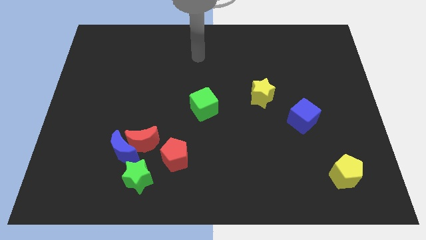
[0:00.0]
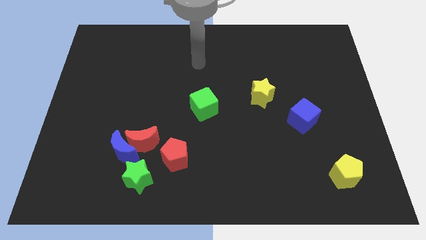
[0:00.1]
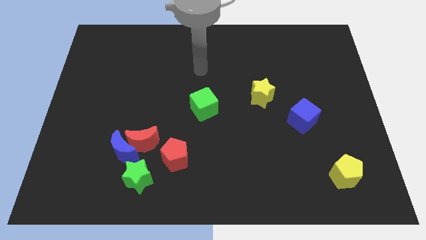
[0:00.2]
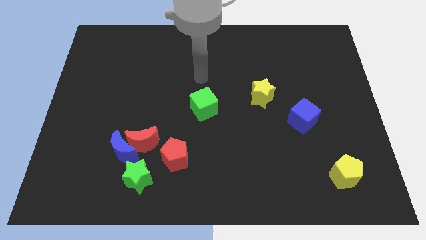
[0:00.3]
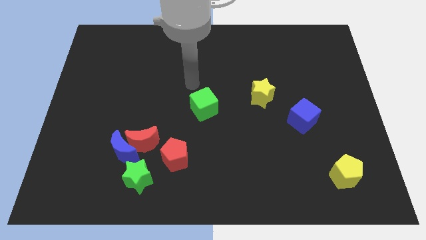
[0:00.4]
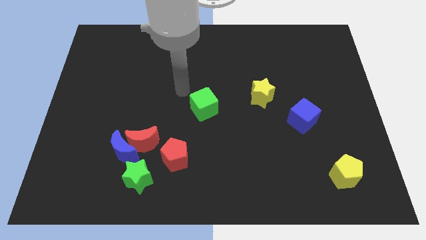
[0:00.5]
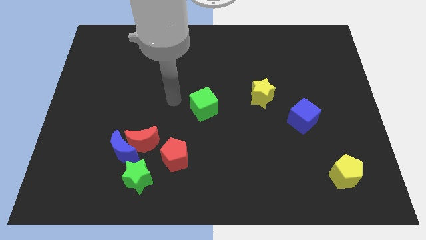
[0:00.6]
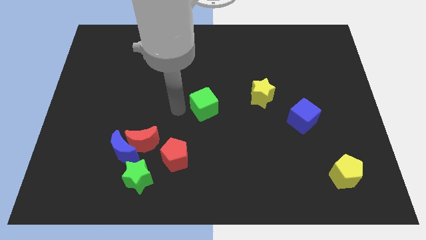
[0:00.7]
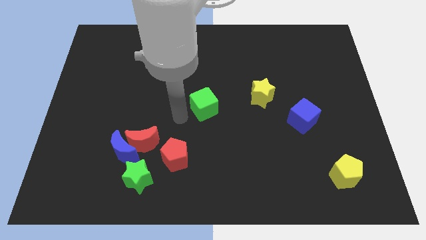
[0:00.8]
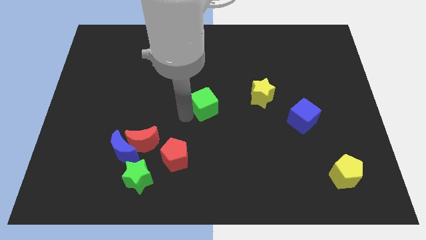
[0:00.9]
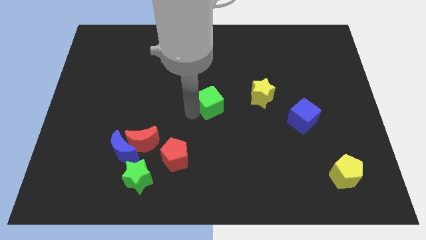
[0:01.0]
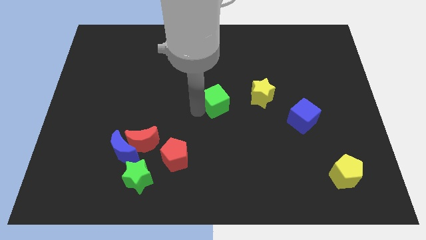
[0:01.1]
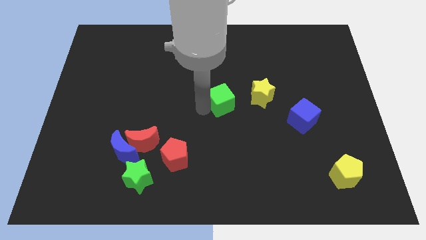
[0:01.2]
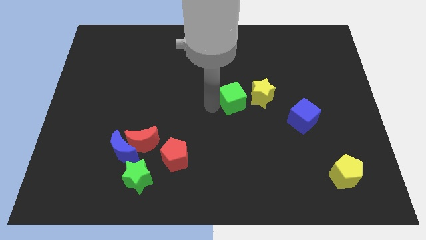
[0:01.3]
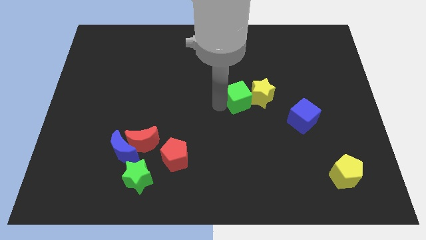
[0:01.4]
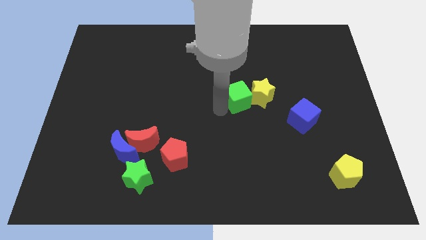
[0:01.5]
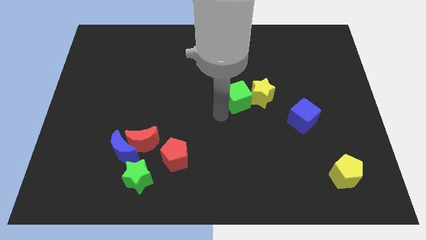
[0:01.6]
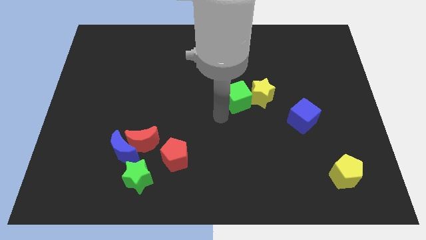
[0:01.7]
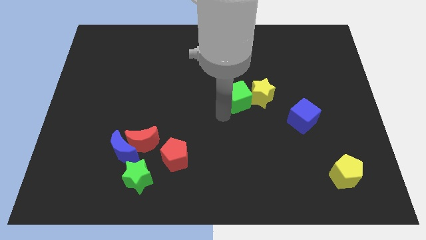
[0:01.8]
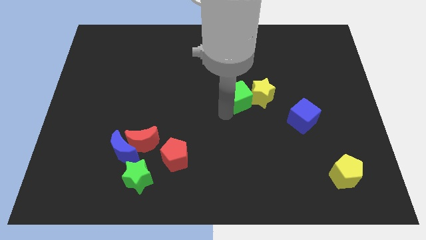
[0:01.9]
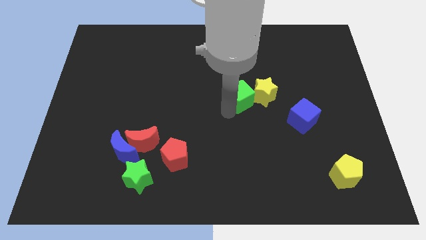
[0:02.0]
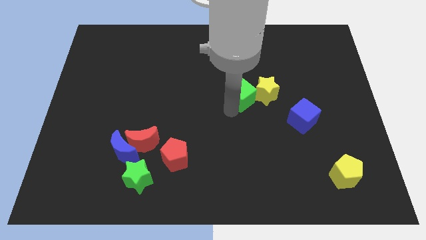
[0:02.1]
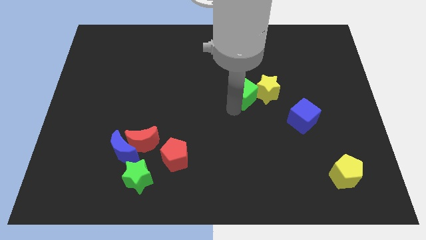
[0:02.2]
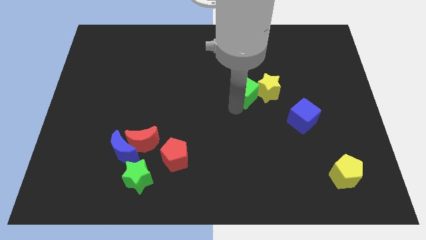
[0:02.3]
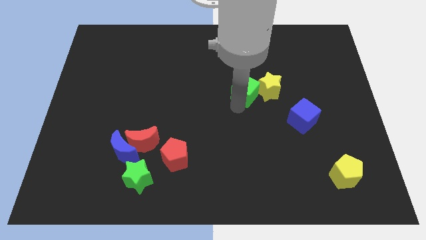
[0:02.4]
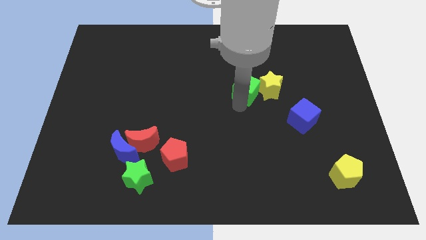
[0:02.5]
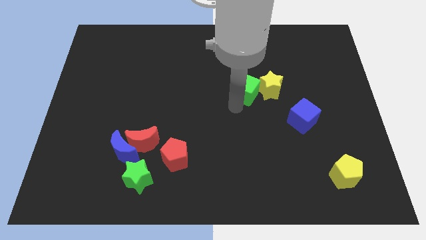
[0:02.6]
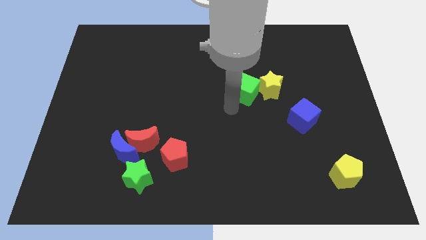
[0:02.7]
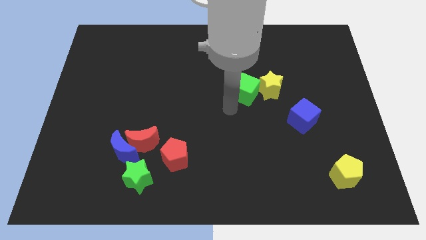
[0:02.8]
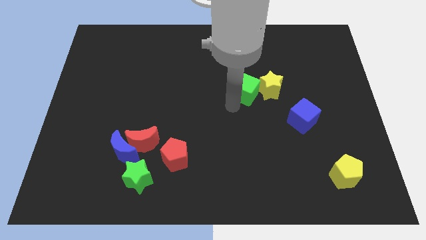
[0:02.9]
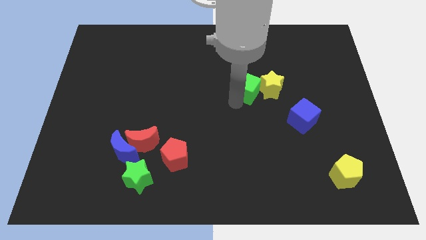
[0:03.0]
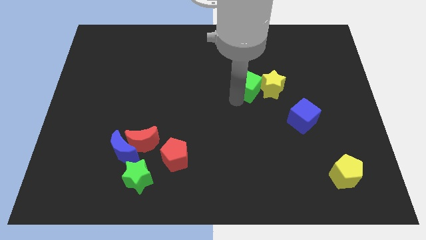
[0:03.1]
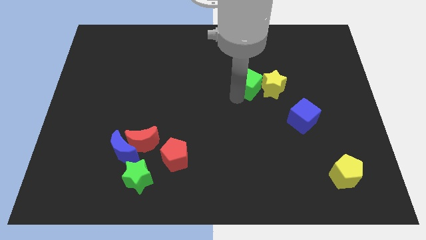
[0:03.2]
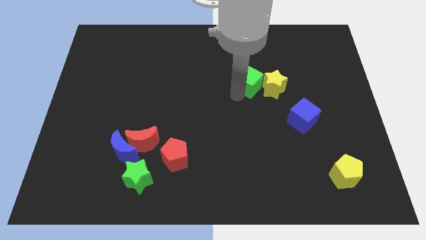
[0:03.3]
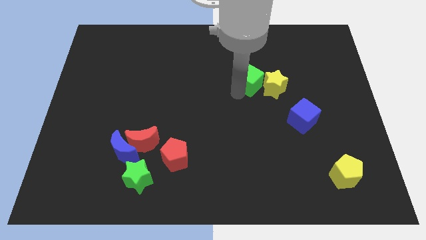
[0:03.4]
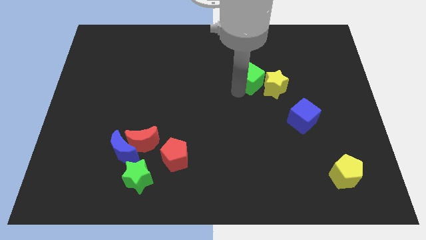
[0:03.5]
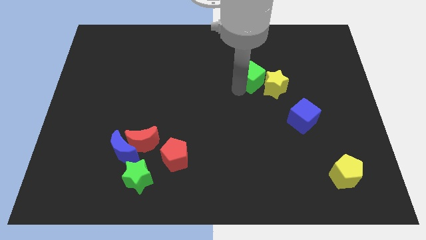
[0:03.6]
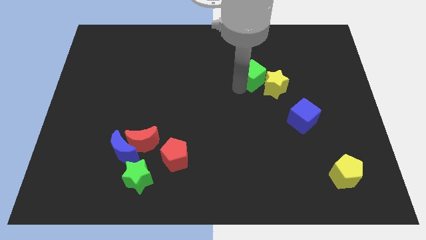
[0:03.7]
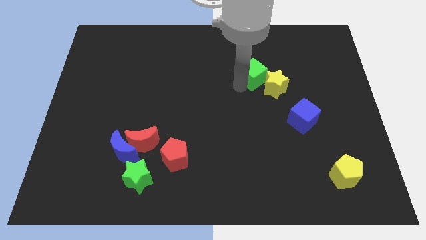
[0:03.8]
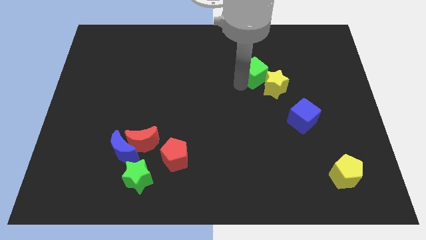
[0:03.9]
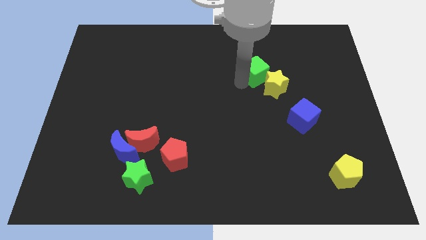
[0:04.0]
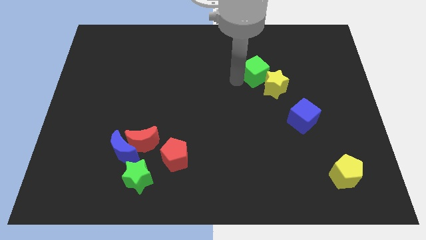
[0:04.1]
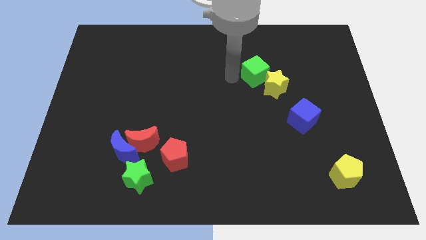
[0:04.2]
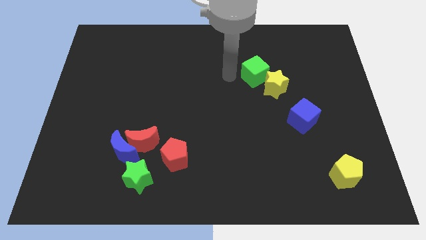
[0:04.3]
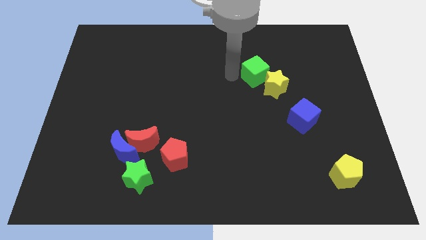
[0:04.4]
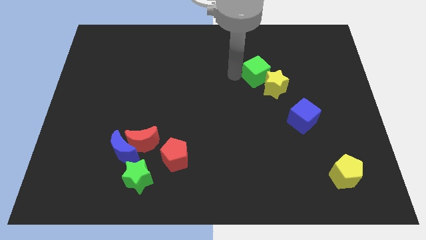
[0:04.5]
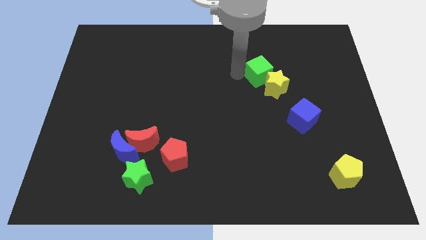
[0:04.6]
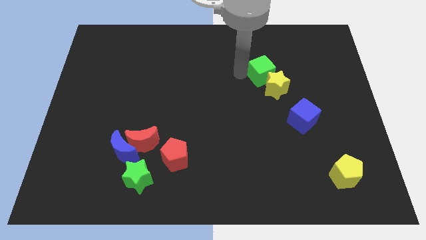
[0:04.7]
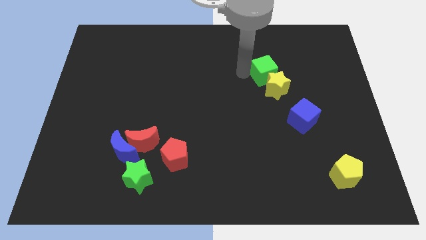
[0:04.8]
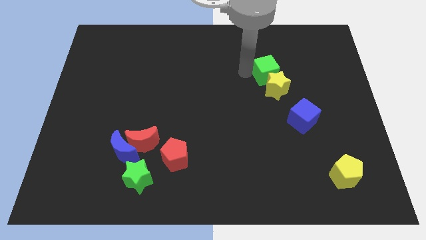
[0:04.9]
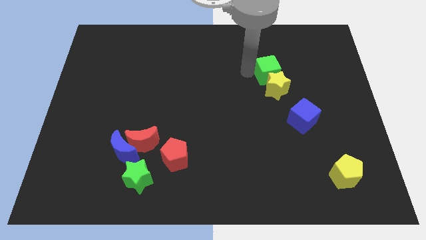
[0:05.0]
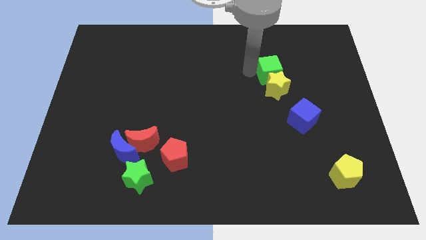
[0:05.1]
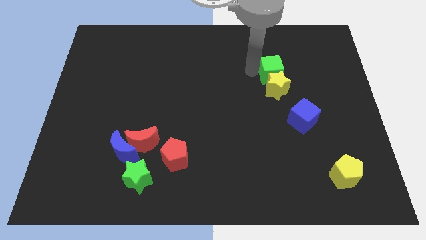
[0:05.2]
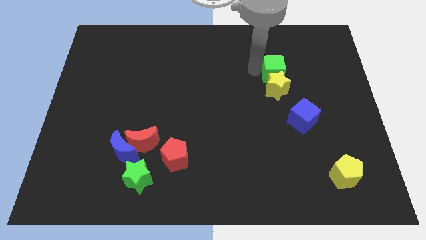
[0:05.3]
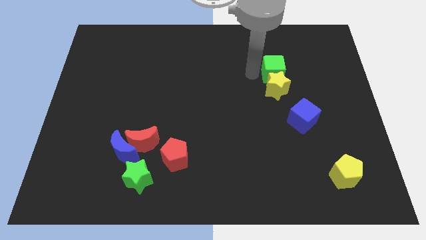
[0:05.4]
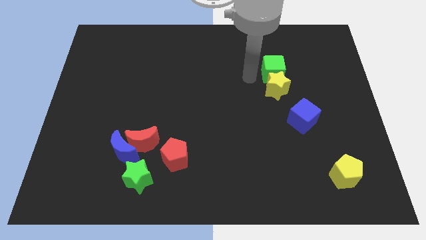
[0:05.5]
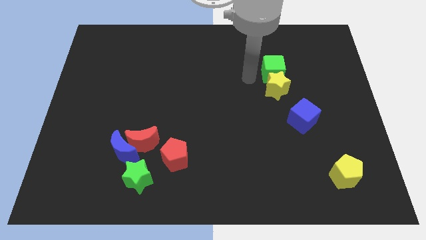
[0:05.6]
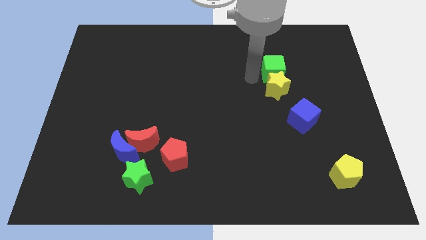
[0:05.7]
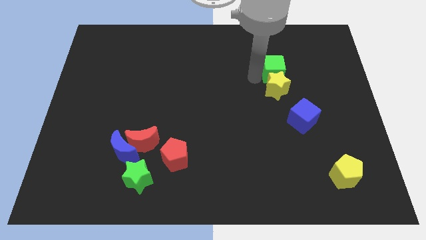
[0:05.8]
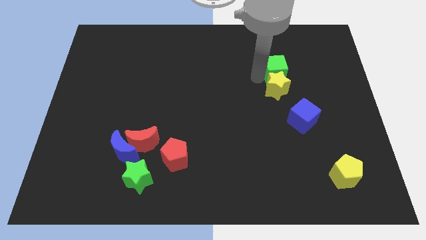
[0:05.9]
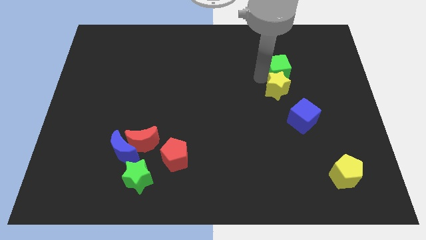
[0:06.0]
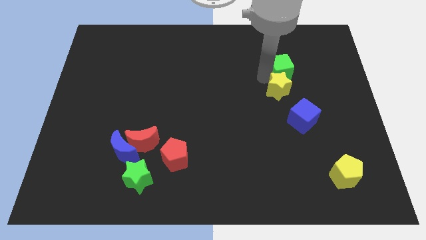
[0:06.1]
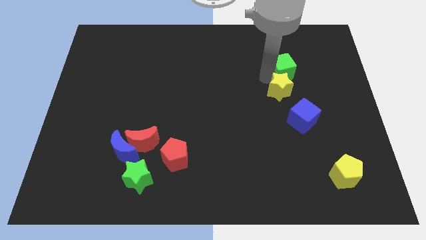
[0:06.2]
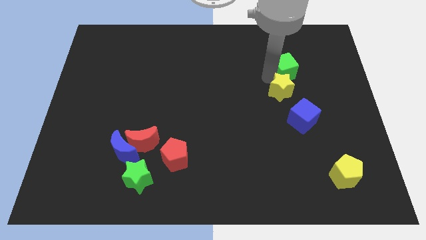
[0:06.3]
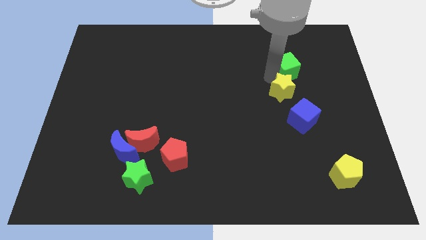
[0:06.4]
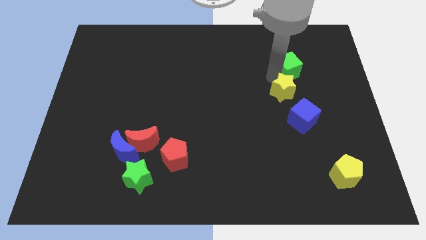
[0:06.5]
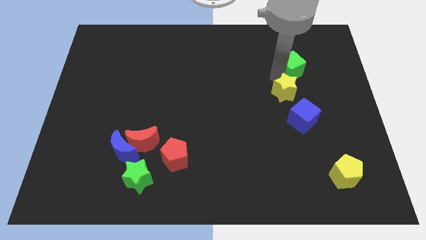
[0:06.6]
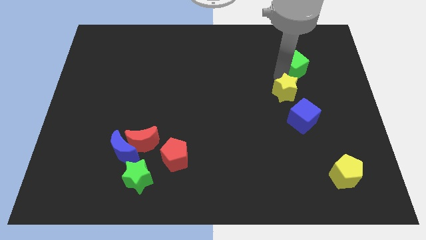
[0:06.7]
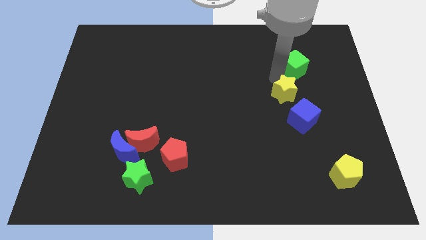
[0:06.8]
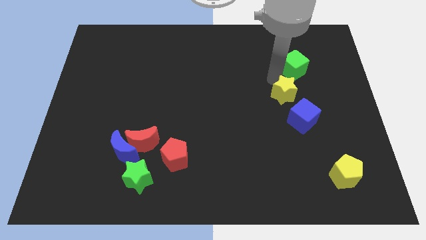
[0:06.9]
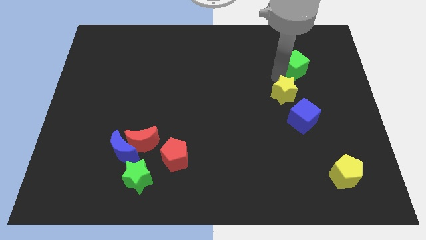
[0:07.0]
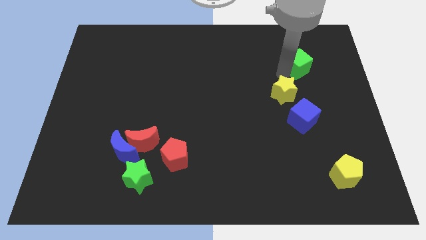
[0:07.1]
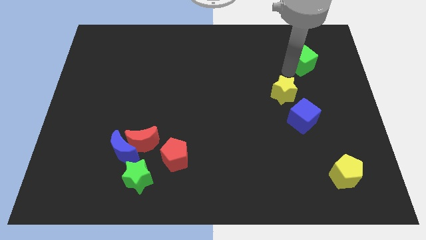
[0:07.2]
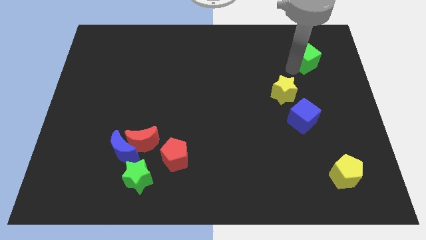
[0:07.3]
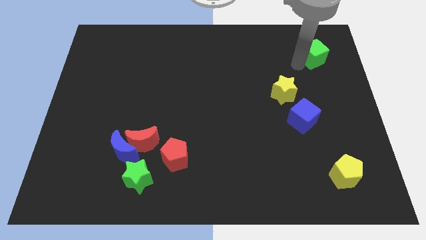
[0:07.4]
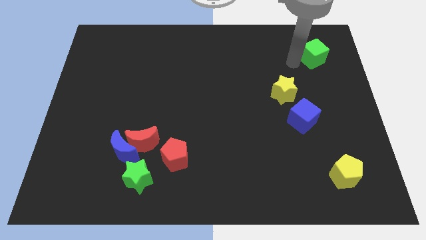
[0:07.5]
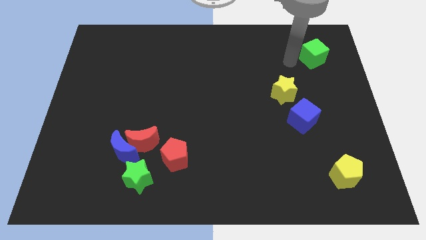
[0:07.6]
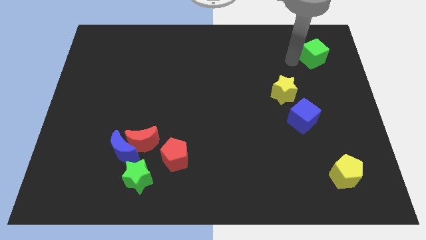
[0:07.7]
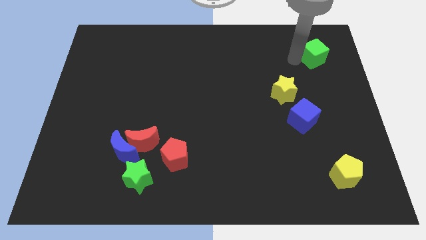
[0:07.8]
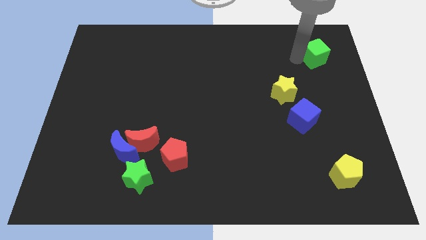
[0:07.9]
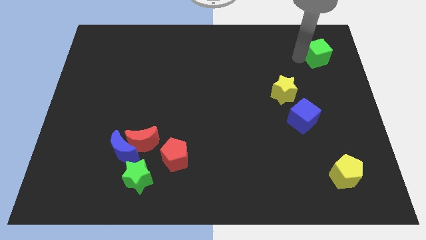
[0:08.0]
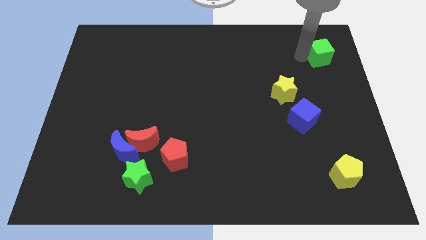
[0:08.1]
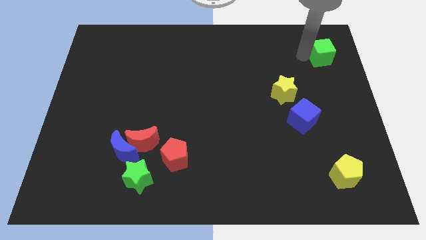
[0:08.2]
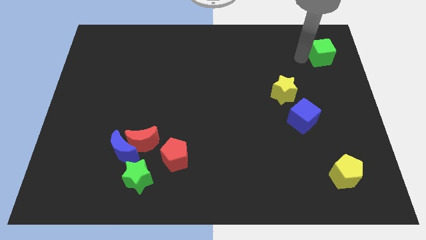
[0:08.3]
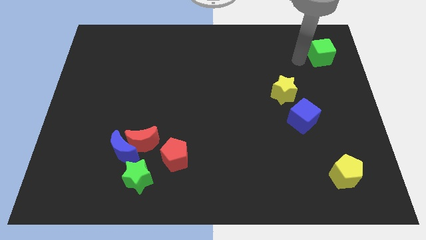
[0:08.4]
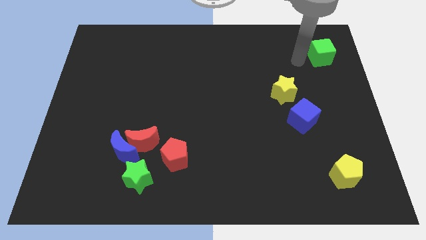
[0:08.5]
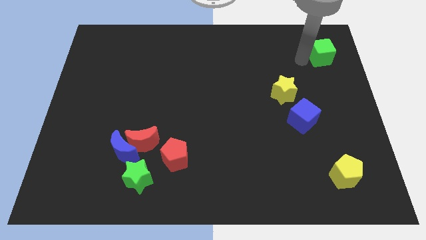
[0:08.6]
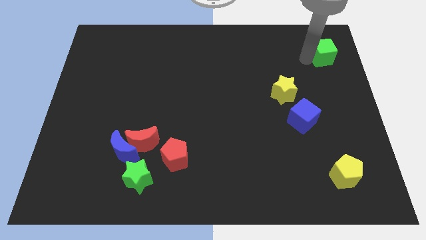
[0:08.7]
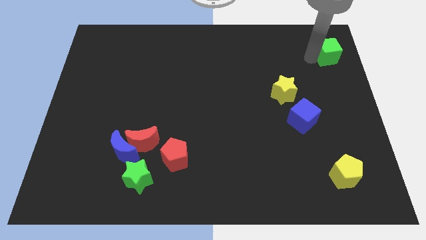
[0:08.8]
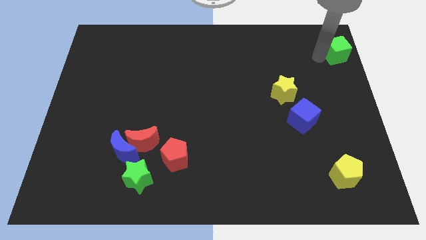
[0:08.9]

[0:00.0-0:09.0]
slide the green cube to the upper right corner
